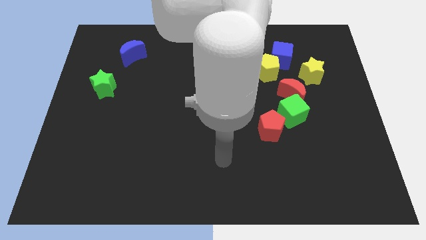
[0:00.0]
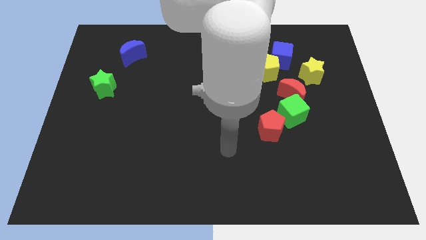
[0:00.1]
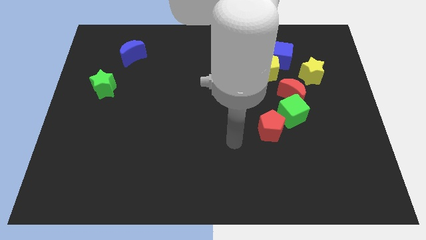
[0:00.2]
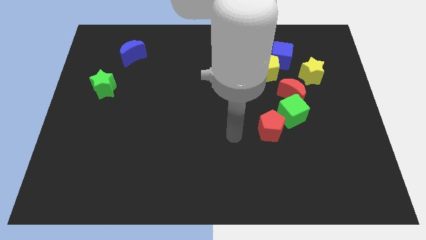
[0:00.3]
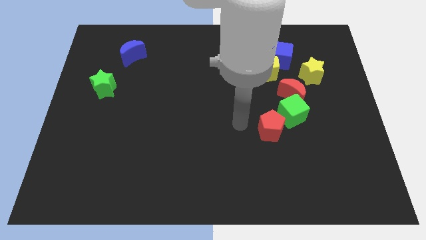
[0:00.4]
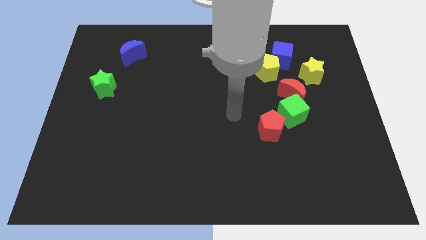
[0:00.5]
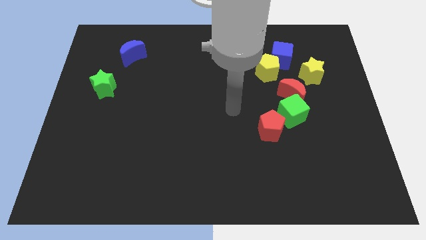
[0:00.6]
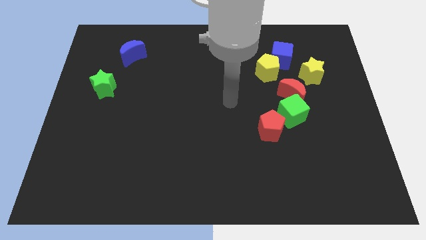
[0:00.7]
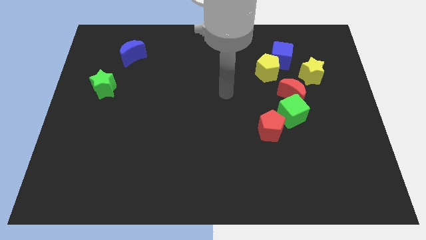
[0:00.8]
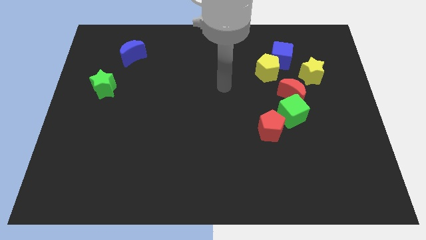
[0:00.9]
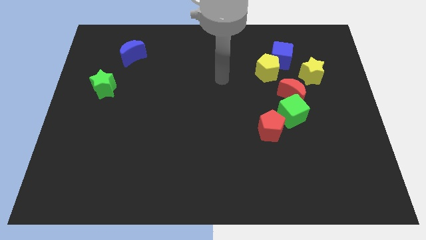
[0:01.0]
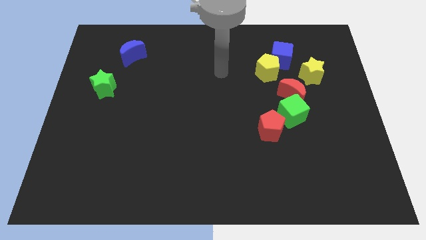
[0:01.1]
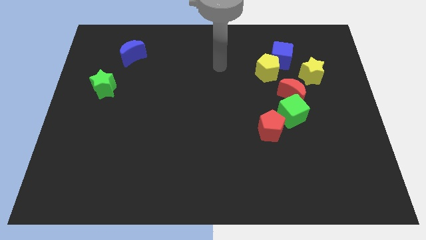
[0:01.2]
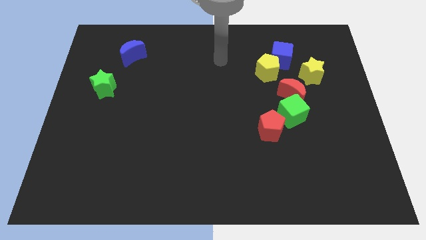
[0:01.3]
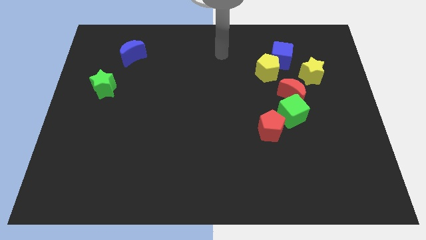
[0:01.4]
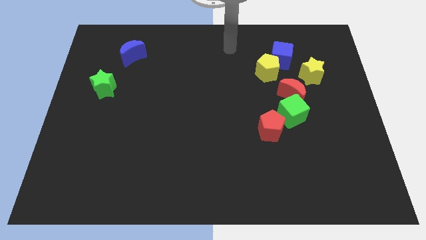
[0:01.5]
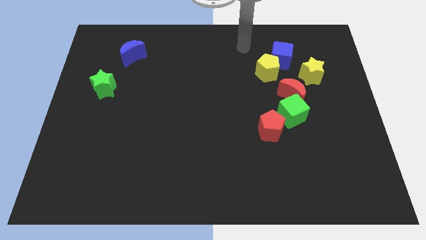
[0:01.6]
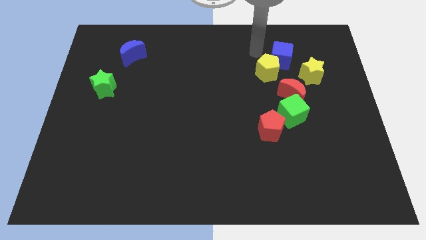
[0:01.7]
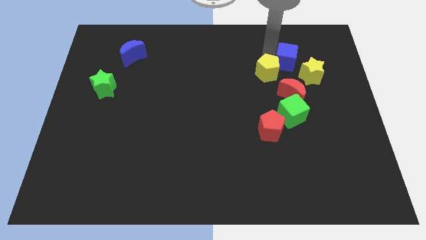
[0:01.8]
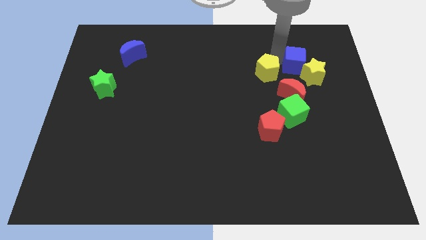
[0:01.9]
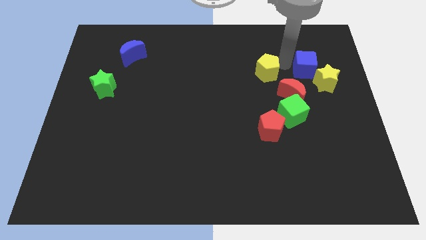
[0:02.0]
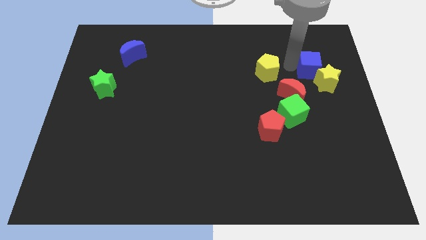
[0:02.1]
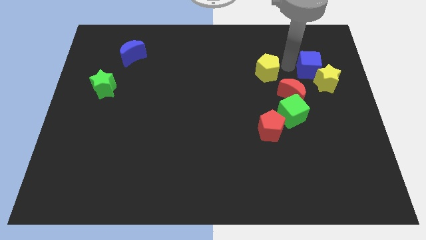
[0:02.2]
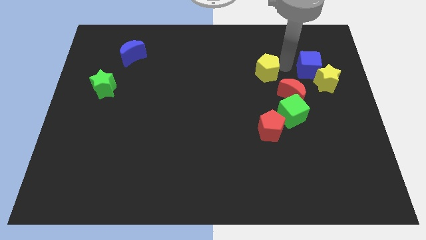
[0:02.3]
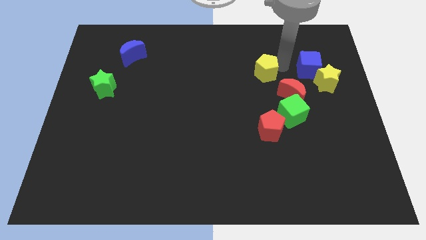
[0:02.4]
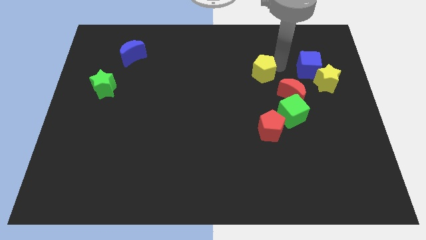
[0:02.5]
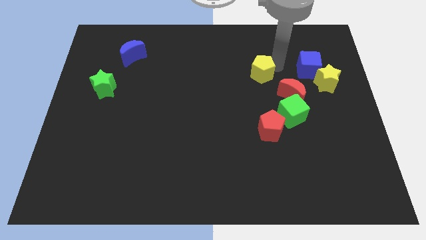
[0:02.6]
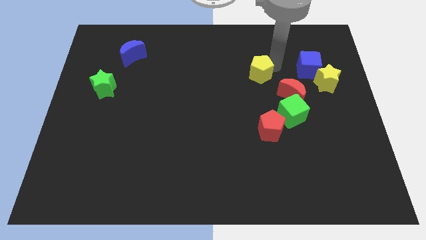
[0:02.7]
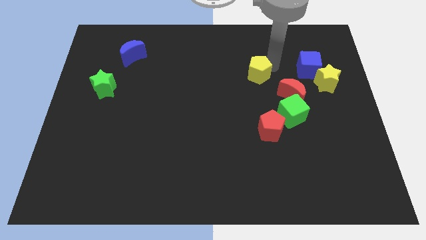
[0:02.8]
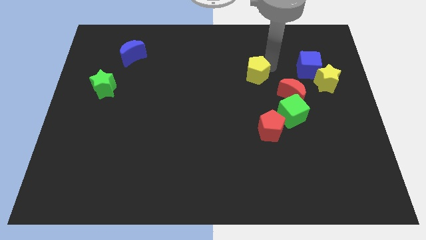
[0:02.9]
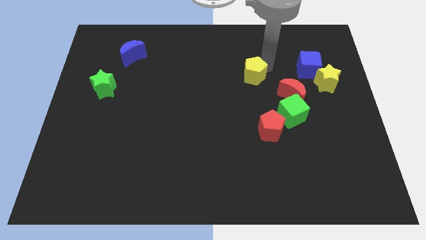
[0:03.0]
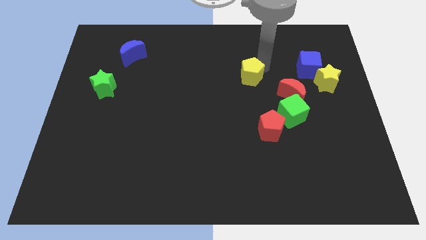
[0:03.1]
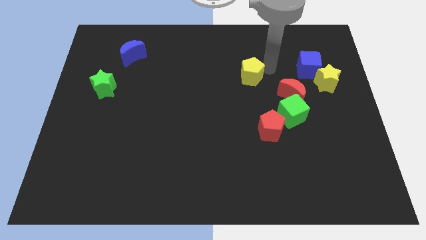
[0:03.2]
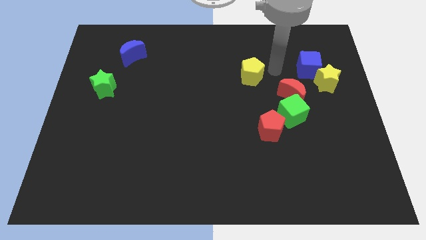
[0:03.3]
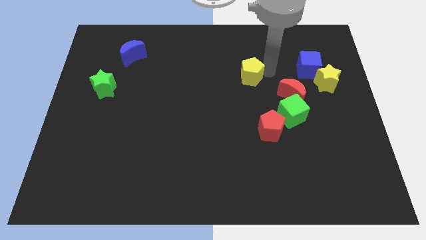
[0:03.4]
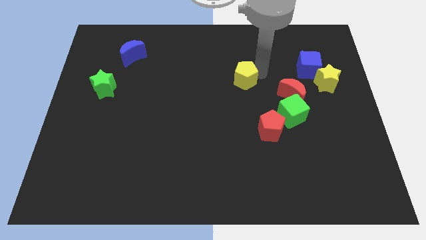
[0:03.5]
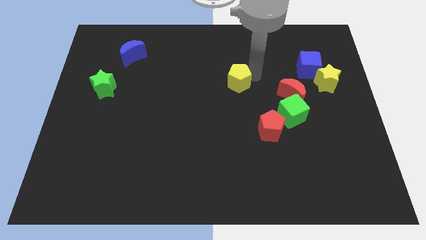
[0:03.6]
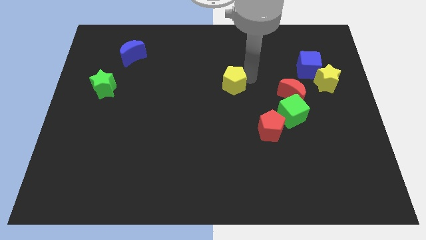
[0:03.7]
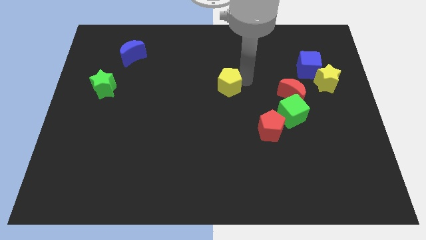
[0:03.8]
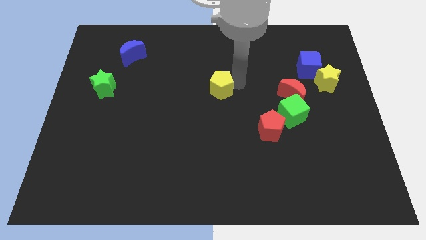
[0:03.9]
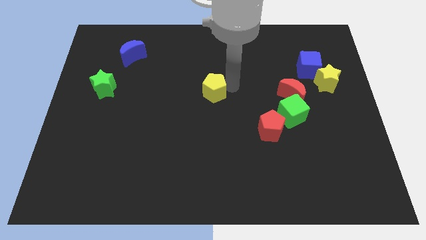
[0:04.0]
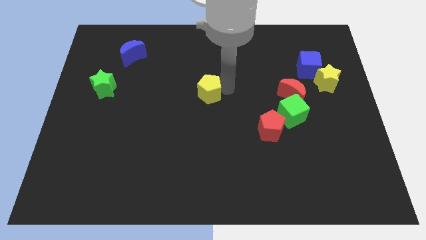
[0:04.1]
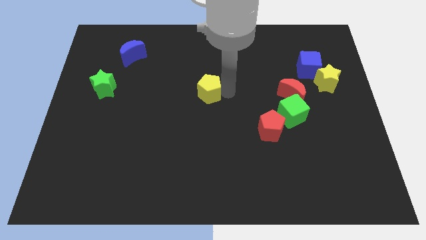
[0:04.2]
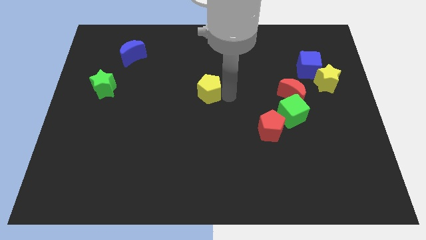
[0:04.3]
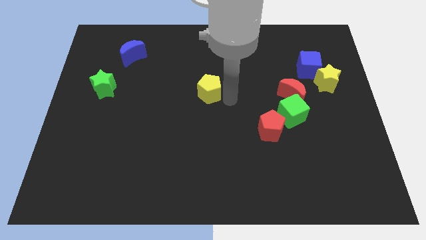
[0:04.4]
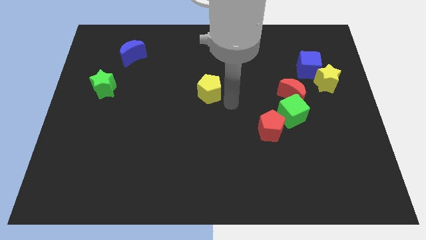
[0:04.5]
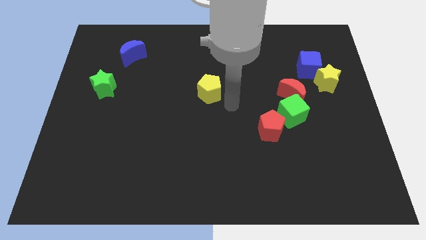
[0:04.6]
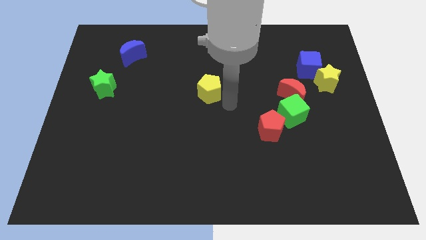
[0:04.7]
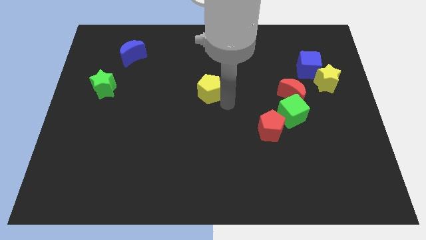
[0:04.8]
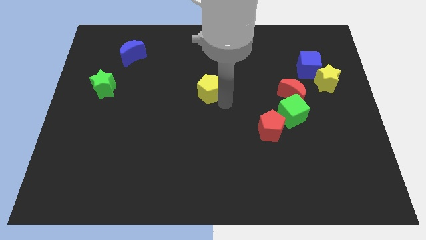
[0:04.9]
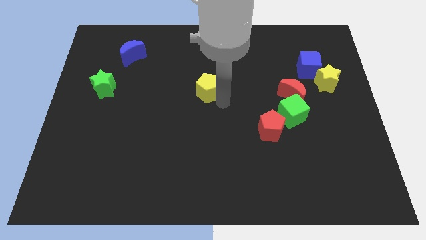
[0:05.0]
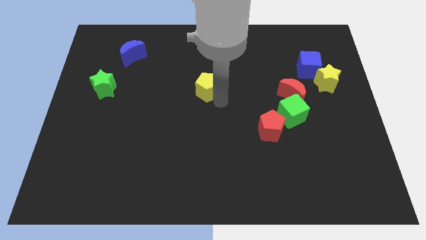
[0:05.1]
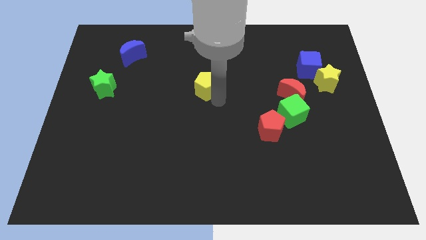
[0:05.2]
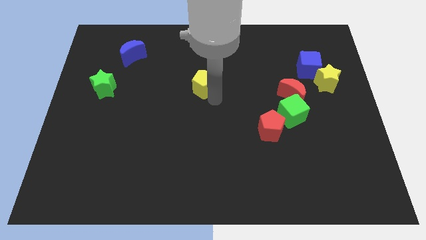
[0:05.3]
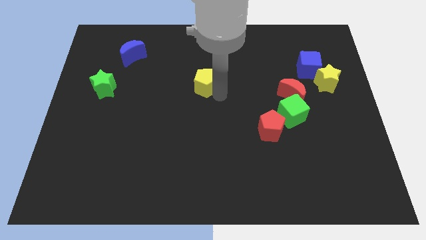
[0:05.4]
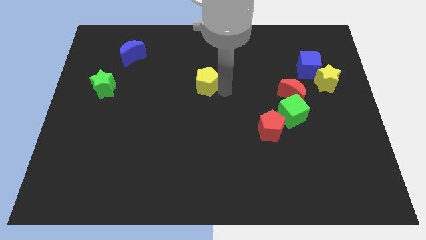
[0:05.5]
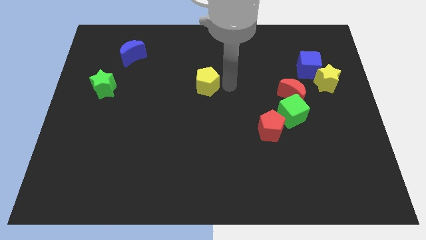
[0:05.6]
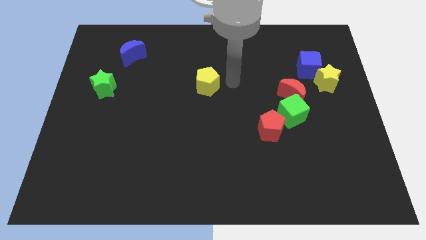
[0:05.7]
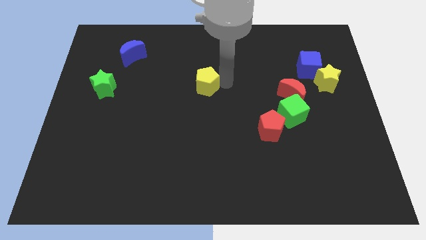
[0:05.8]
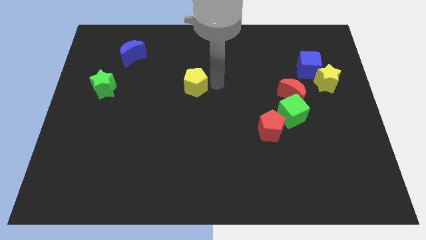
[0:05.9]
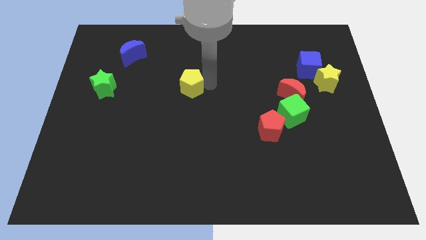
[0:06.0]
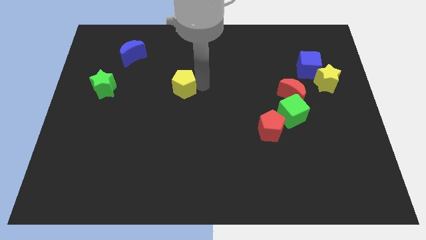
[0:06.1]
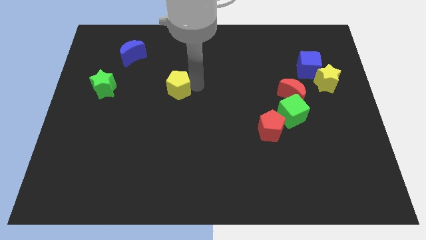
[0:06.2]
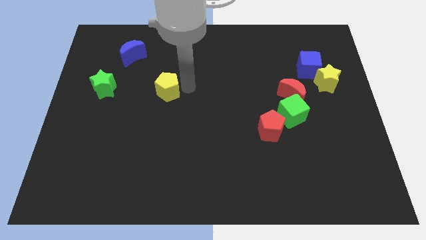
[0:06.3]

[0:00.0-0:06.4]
move the yellow pentagon just right of the green star

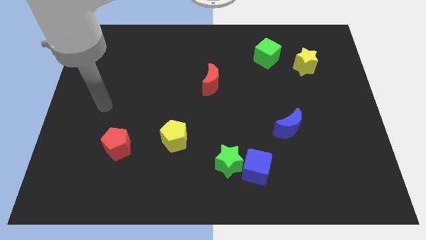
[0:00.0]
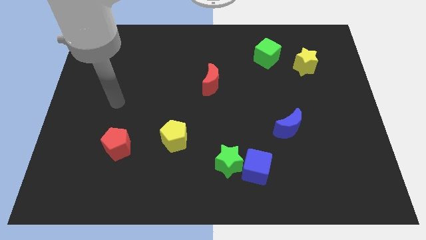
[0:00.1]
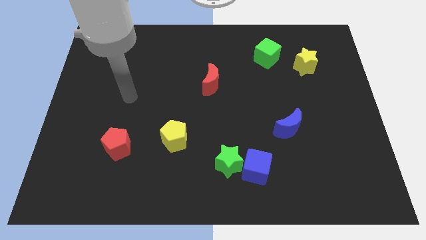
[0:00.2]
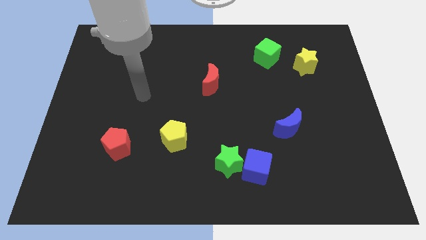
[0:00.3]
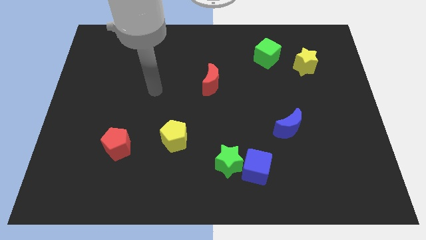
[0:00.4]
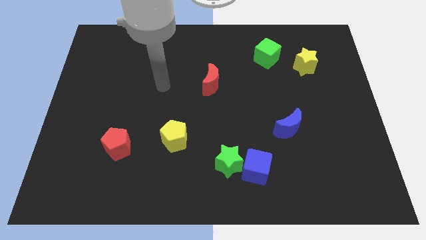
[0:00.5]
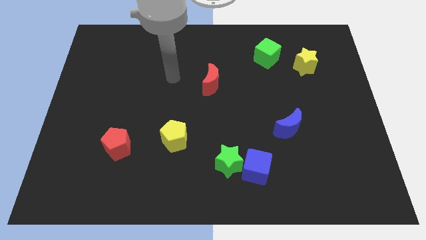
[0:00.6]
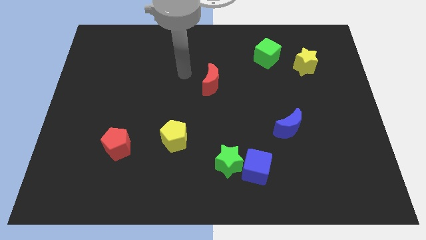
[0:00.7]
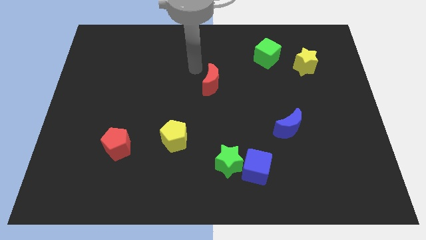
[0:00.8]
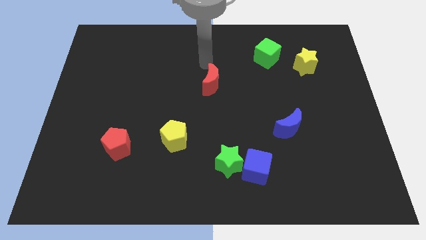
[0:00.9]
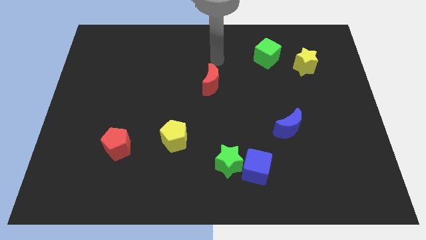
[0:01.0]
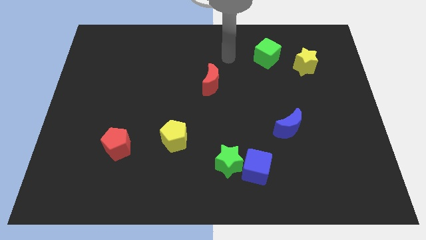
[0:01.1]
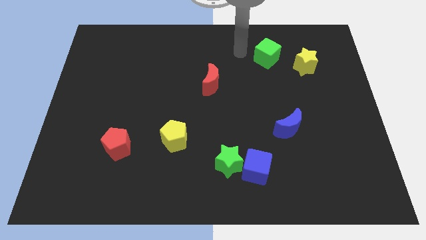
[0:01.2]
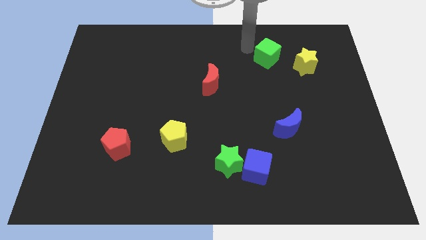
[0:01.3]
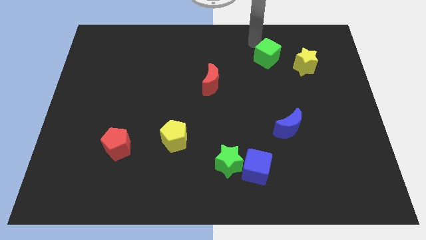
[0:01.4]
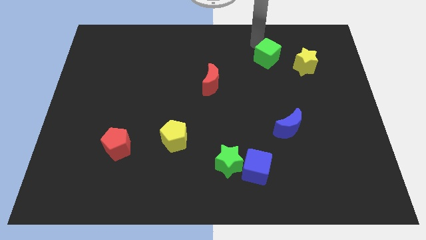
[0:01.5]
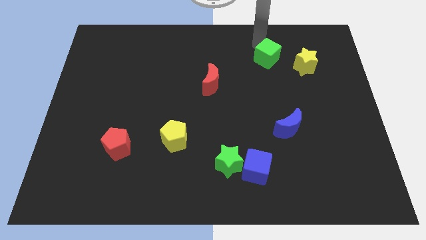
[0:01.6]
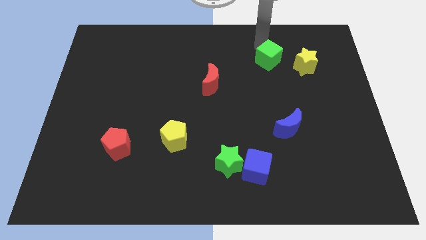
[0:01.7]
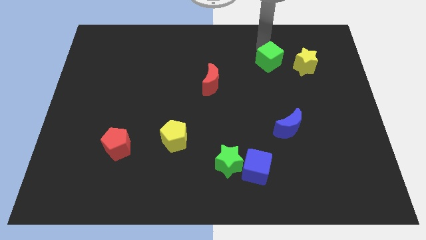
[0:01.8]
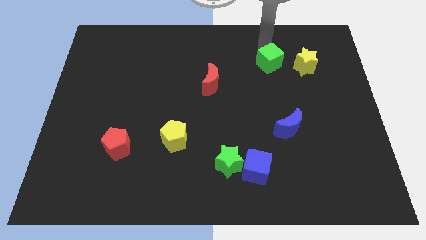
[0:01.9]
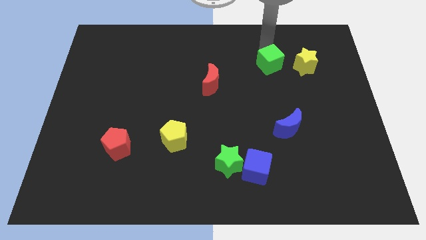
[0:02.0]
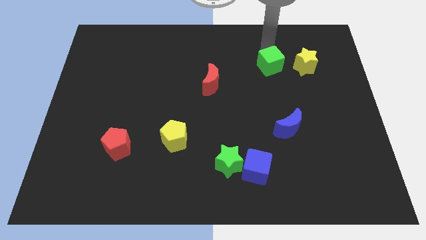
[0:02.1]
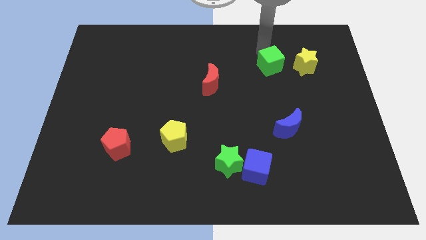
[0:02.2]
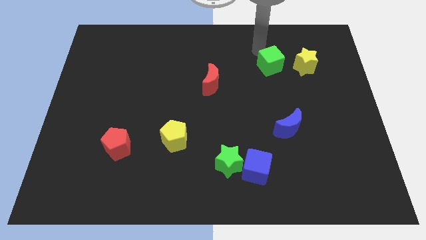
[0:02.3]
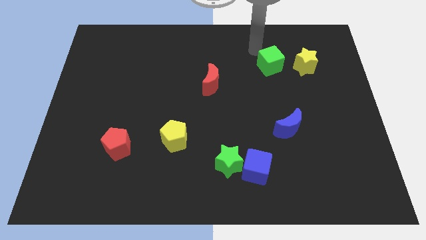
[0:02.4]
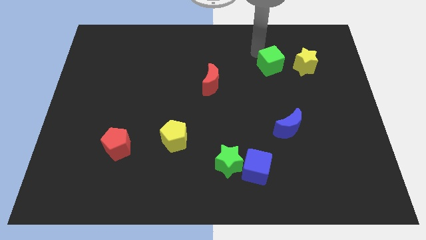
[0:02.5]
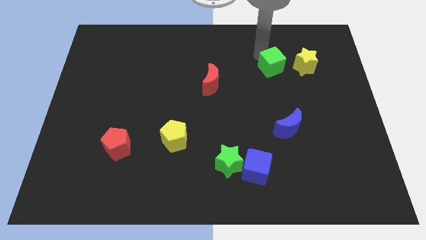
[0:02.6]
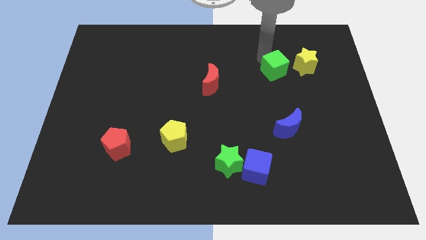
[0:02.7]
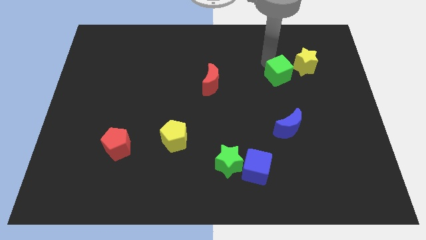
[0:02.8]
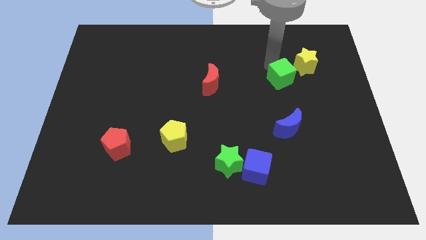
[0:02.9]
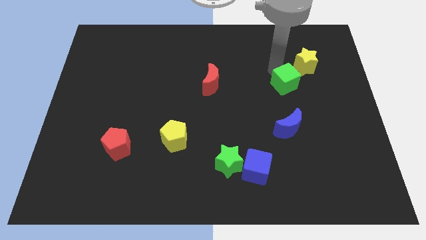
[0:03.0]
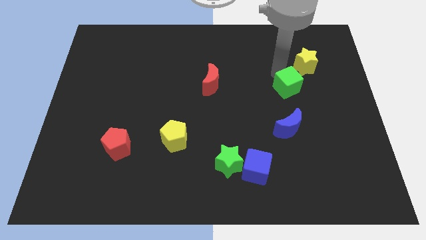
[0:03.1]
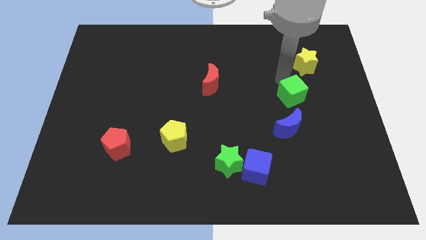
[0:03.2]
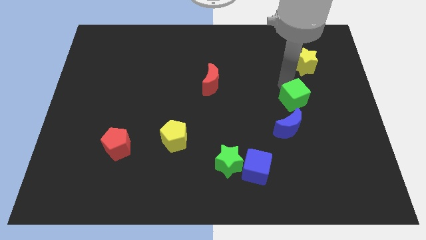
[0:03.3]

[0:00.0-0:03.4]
push the green cube to the top right of the blue moon
